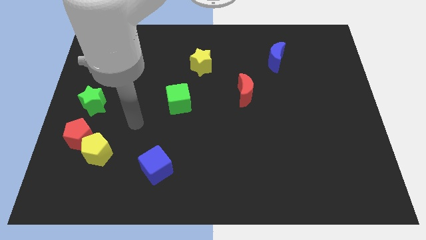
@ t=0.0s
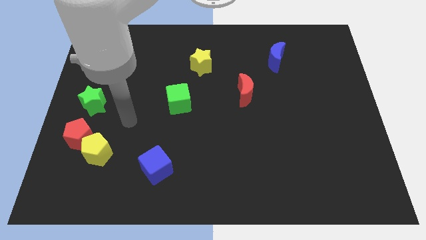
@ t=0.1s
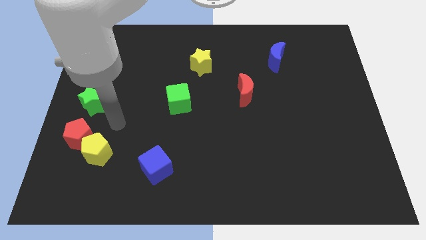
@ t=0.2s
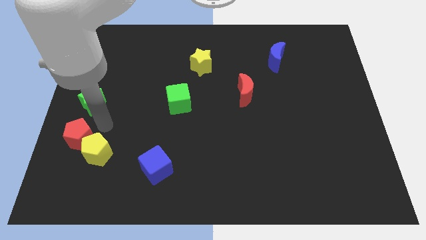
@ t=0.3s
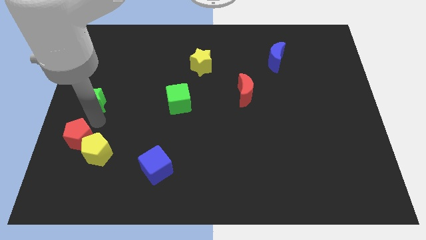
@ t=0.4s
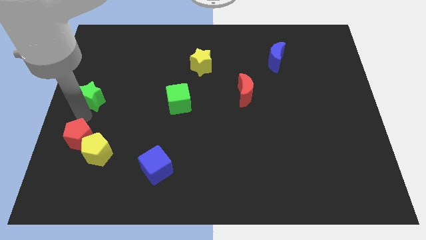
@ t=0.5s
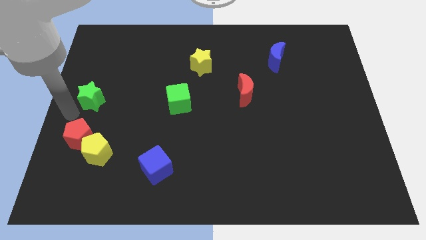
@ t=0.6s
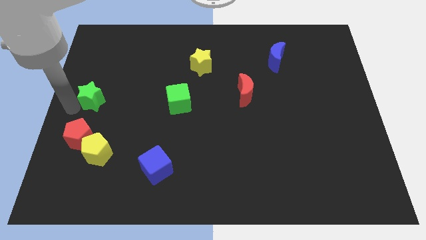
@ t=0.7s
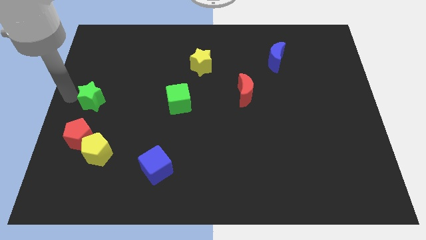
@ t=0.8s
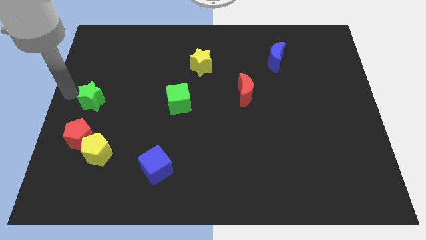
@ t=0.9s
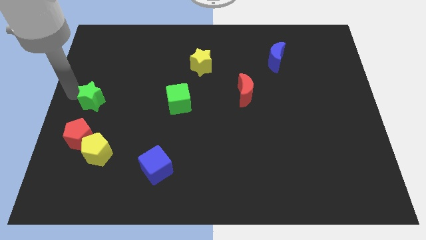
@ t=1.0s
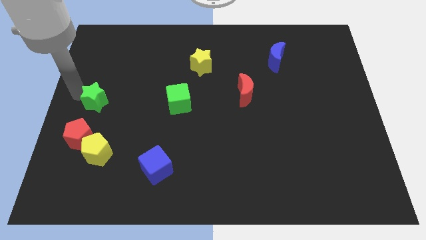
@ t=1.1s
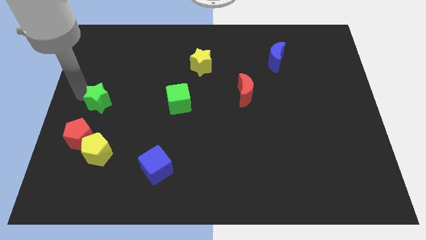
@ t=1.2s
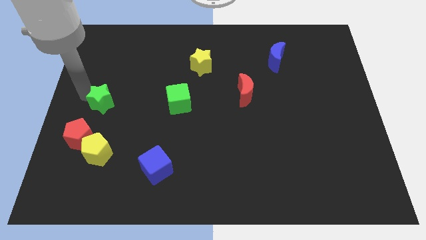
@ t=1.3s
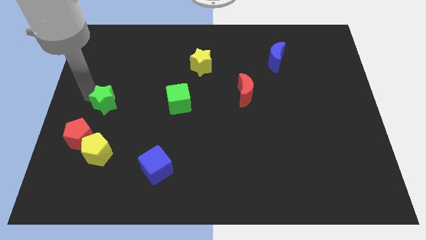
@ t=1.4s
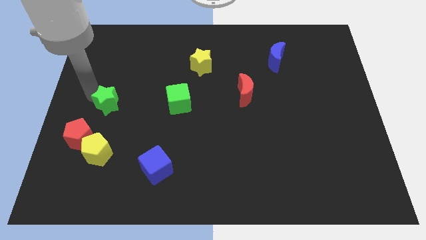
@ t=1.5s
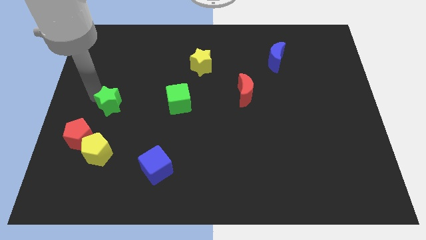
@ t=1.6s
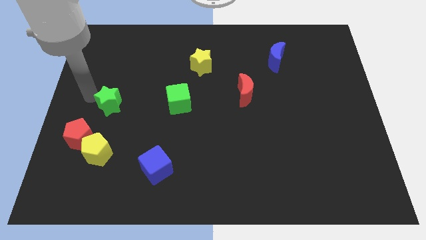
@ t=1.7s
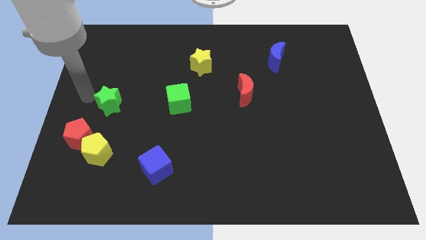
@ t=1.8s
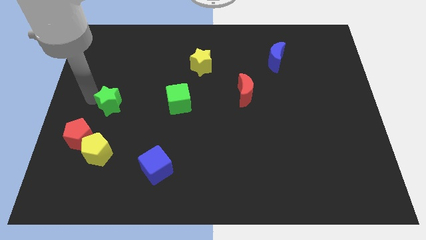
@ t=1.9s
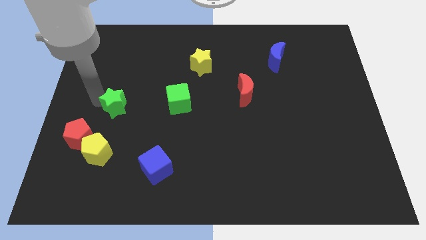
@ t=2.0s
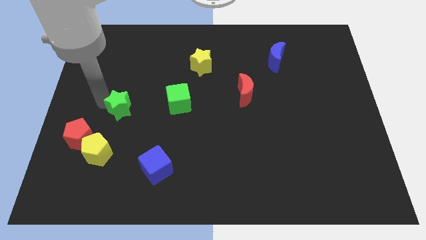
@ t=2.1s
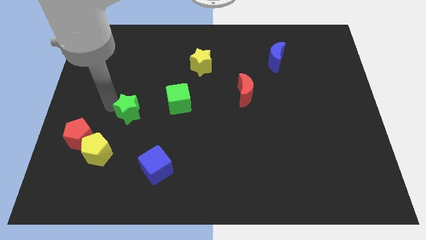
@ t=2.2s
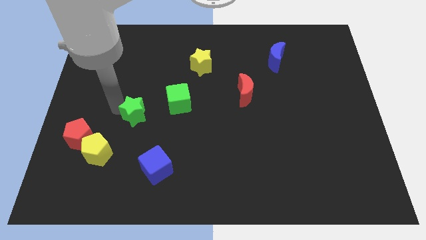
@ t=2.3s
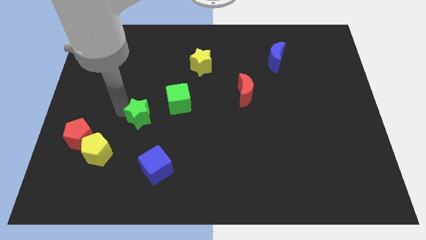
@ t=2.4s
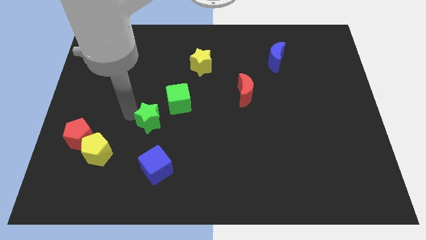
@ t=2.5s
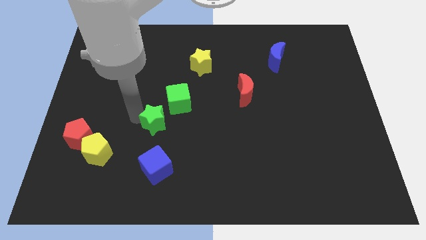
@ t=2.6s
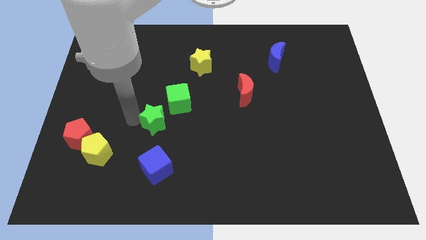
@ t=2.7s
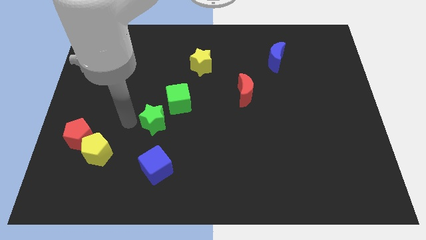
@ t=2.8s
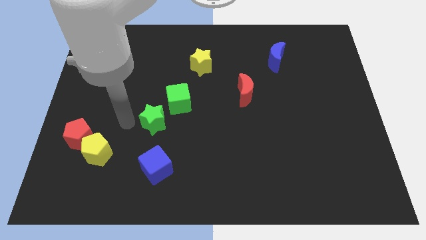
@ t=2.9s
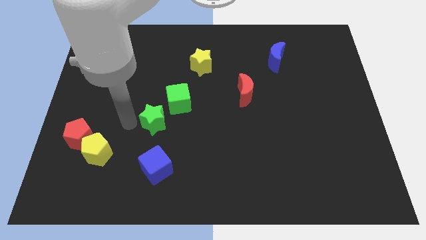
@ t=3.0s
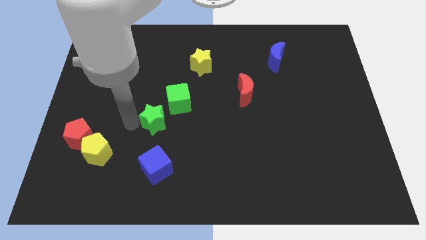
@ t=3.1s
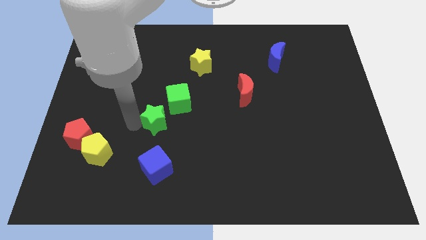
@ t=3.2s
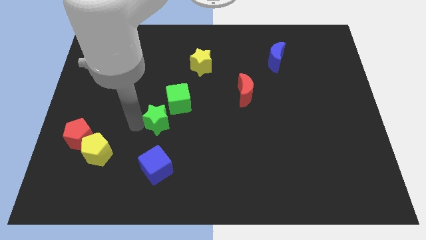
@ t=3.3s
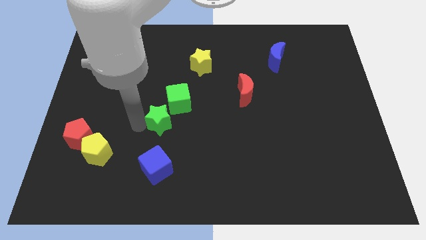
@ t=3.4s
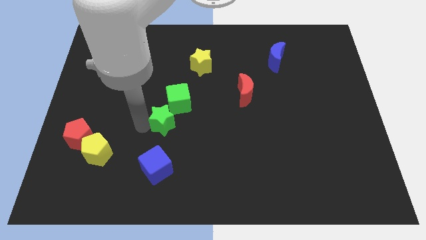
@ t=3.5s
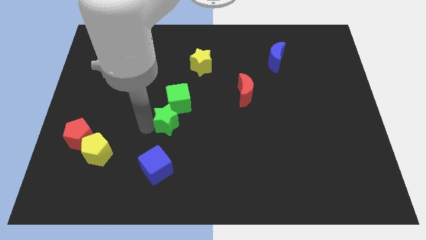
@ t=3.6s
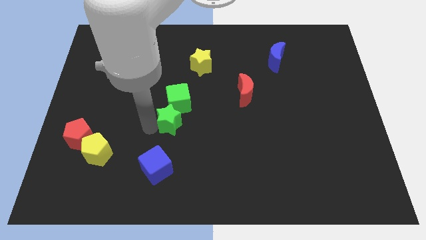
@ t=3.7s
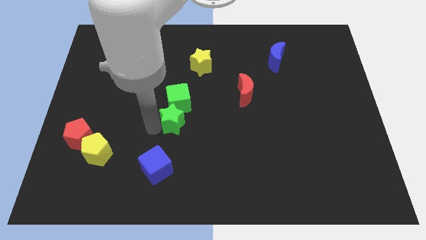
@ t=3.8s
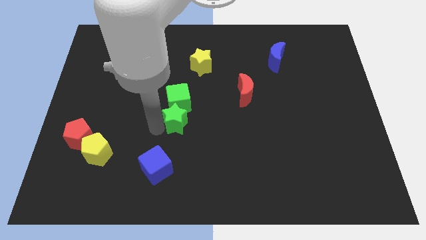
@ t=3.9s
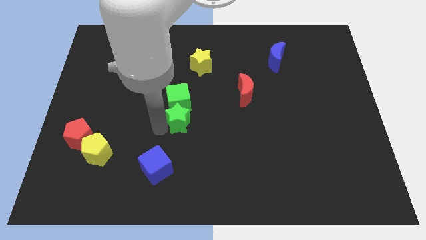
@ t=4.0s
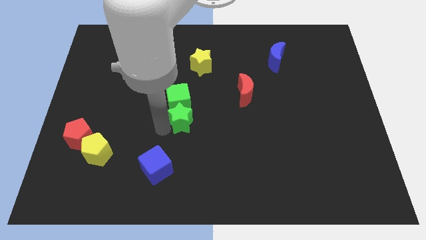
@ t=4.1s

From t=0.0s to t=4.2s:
move the green star to the right

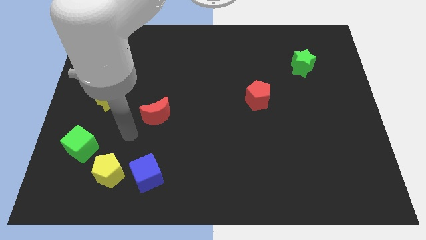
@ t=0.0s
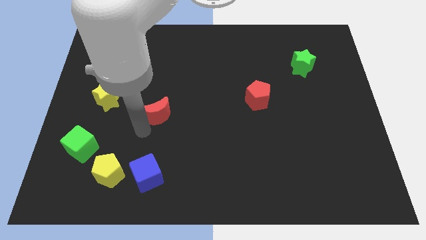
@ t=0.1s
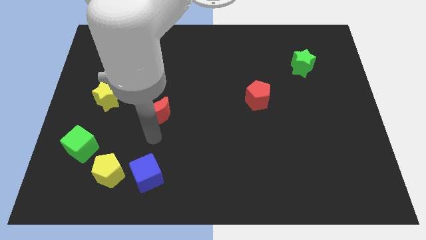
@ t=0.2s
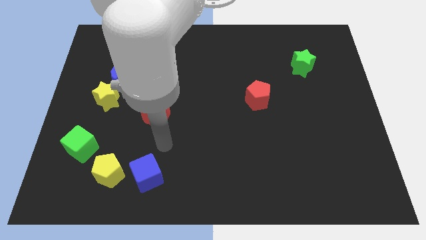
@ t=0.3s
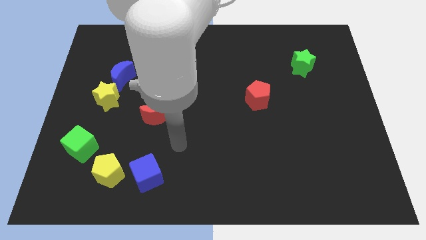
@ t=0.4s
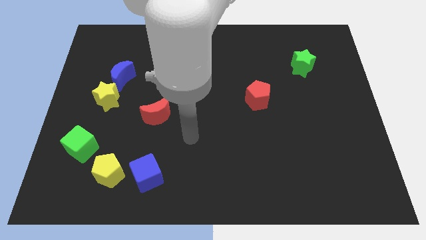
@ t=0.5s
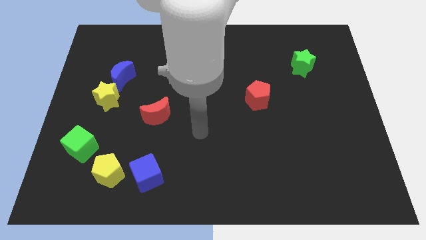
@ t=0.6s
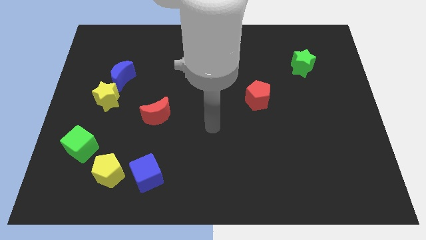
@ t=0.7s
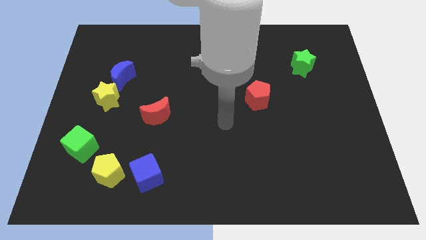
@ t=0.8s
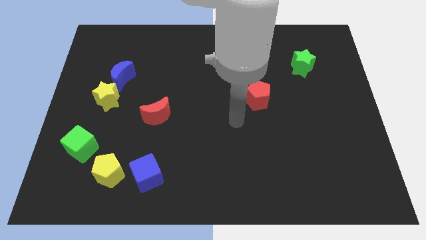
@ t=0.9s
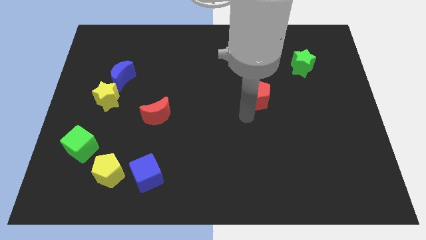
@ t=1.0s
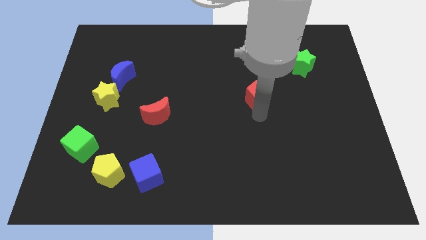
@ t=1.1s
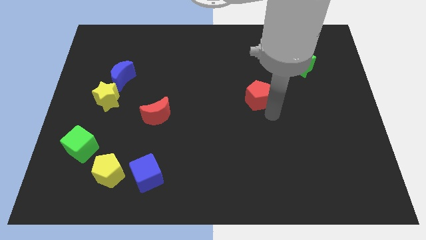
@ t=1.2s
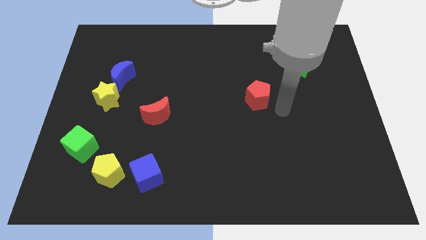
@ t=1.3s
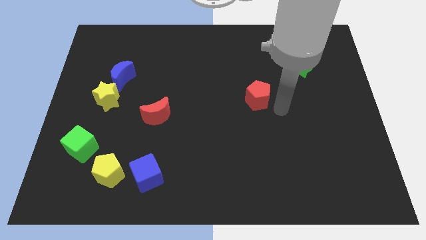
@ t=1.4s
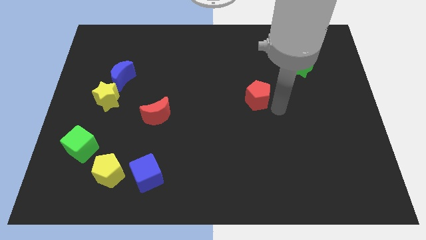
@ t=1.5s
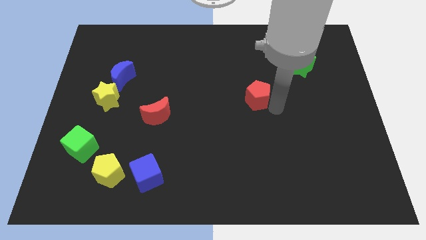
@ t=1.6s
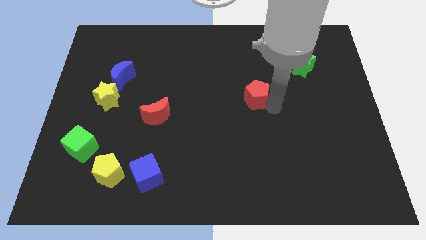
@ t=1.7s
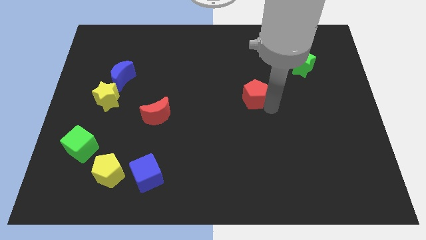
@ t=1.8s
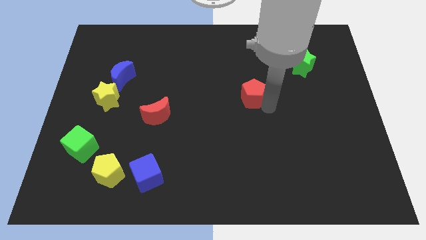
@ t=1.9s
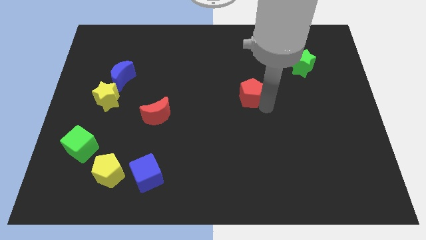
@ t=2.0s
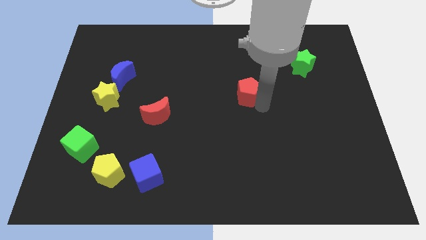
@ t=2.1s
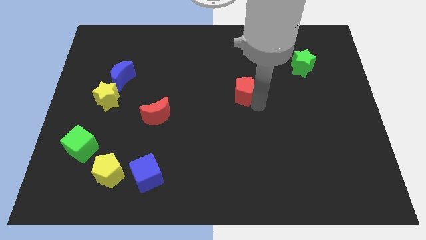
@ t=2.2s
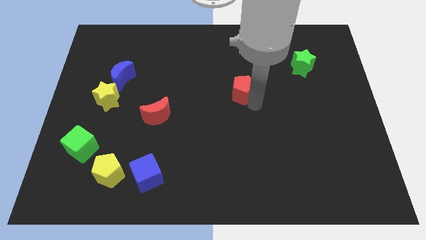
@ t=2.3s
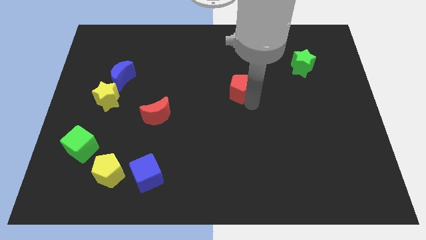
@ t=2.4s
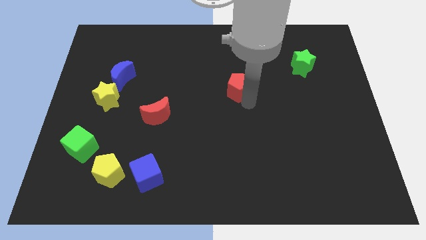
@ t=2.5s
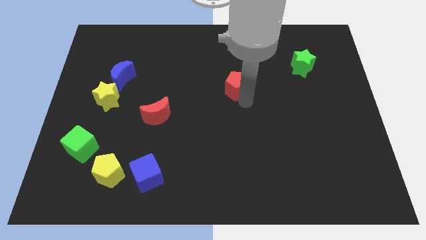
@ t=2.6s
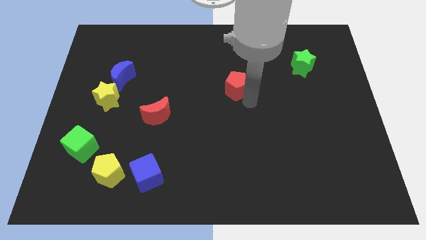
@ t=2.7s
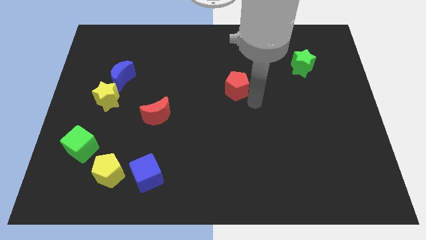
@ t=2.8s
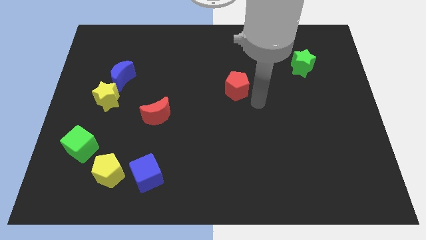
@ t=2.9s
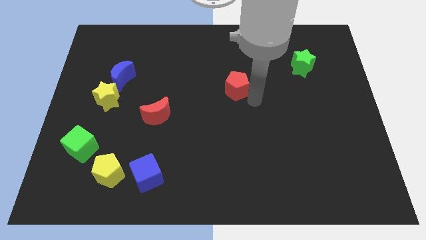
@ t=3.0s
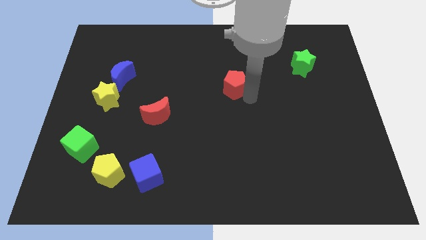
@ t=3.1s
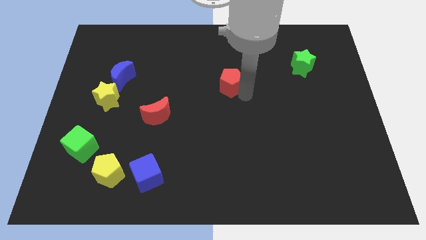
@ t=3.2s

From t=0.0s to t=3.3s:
slightly move the red pentagon diagonally upwards and left
